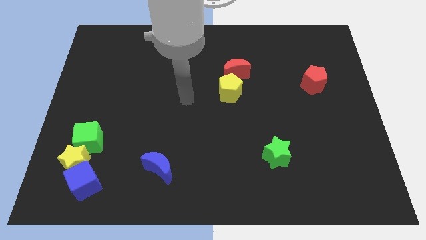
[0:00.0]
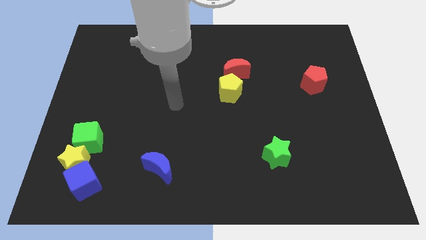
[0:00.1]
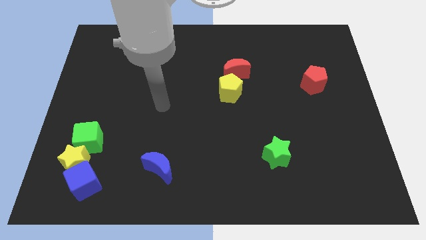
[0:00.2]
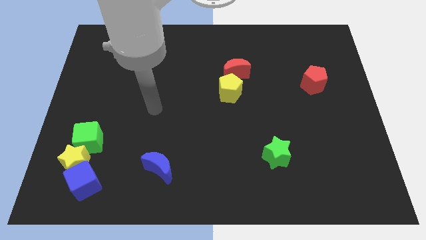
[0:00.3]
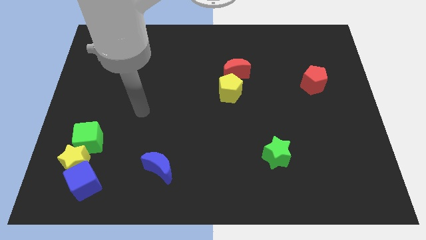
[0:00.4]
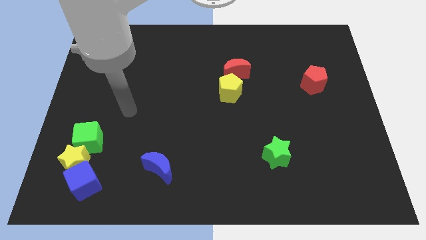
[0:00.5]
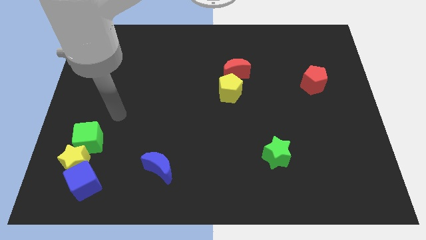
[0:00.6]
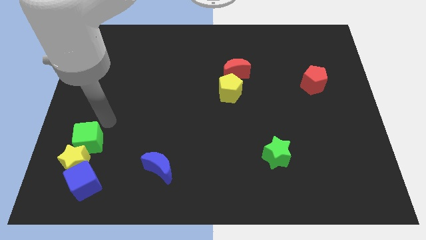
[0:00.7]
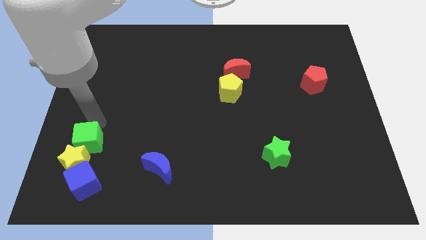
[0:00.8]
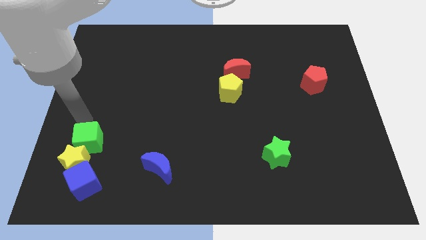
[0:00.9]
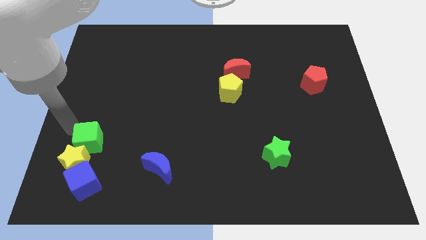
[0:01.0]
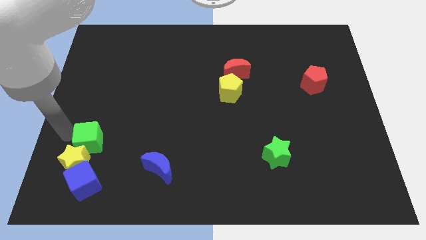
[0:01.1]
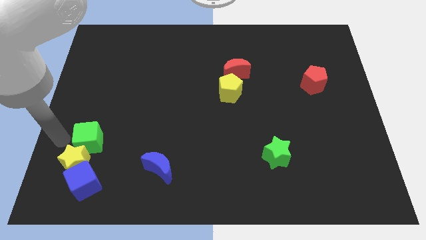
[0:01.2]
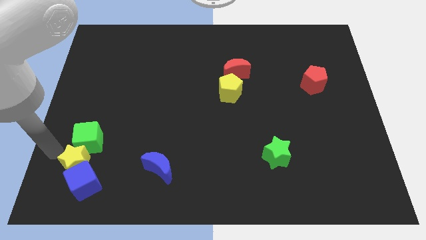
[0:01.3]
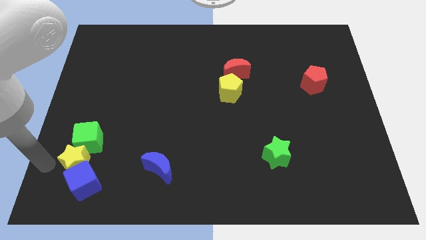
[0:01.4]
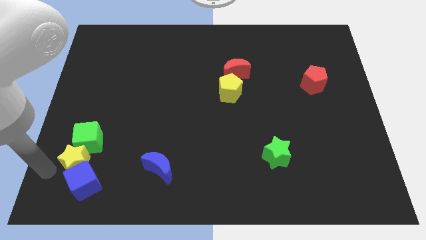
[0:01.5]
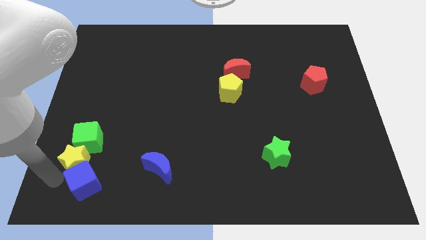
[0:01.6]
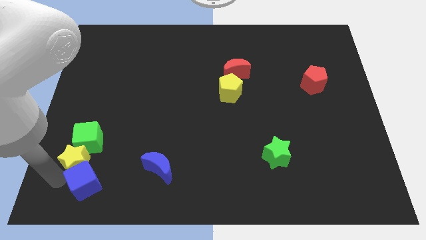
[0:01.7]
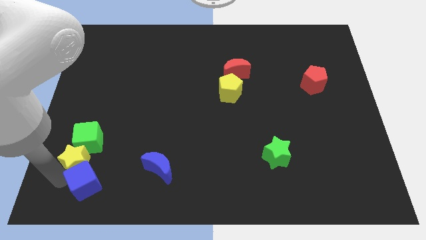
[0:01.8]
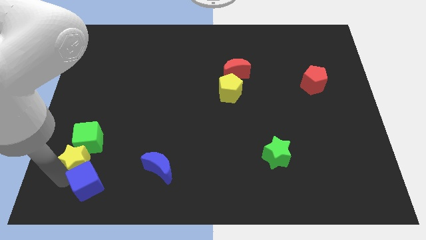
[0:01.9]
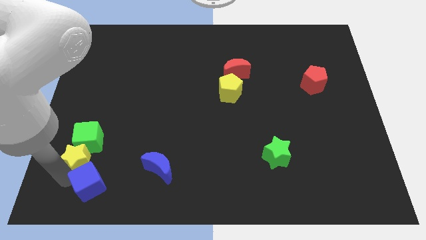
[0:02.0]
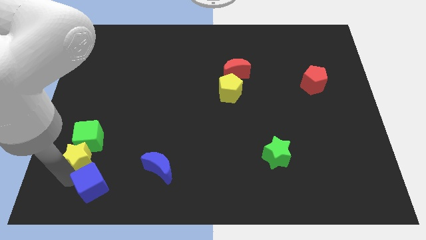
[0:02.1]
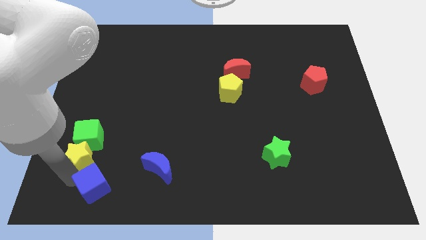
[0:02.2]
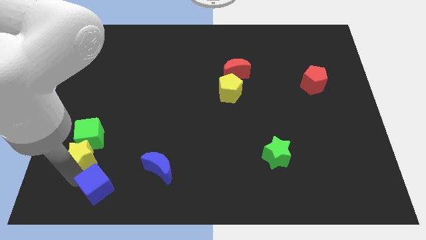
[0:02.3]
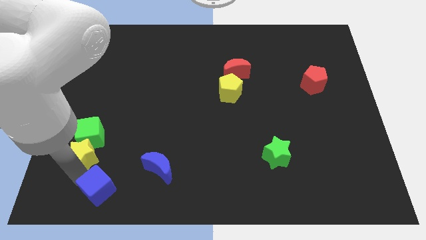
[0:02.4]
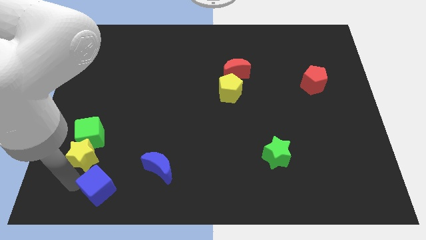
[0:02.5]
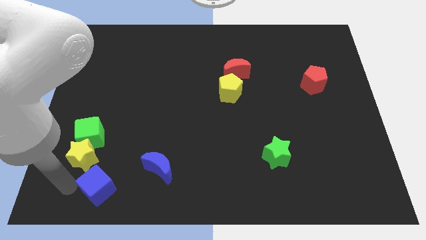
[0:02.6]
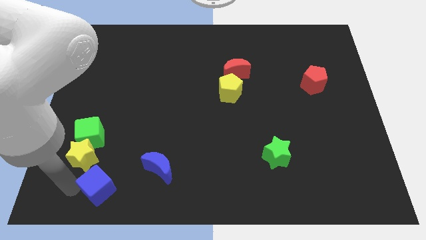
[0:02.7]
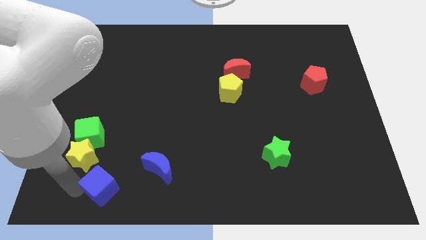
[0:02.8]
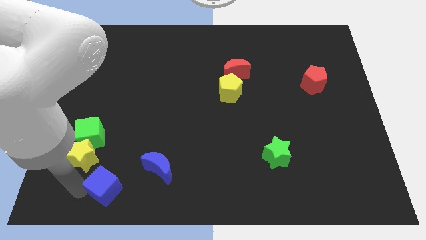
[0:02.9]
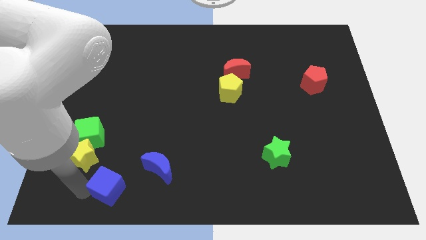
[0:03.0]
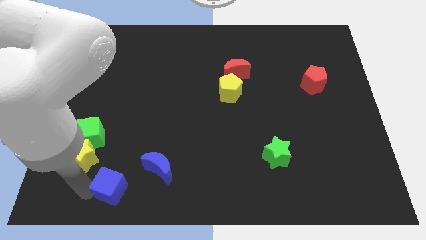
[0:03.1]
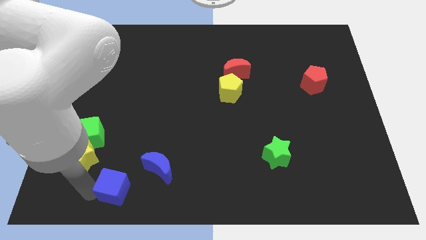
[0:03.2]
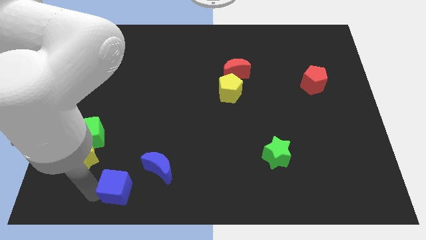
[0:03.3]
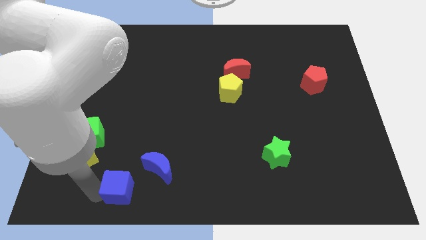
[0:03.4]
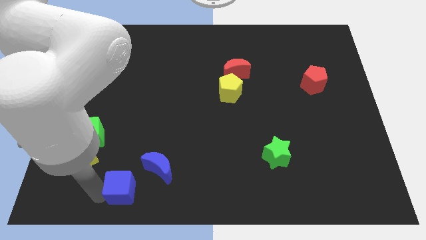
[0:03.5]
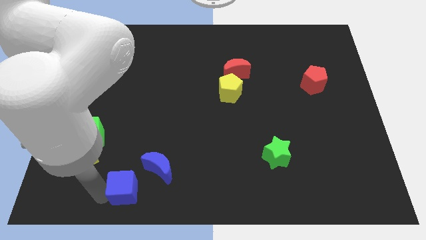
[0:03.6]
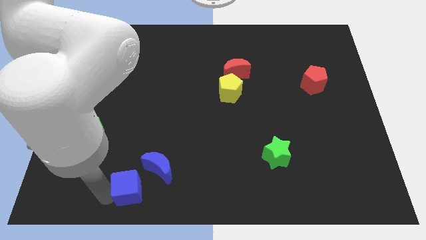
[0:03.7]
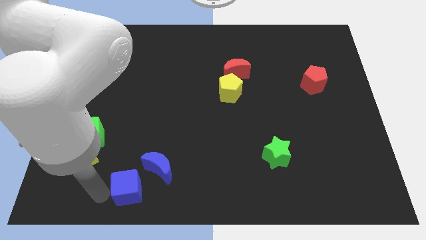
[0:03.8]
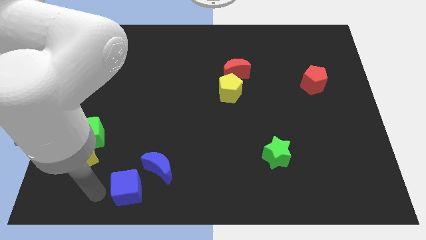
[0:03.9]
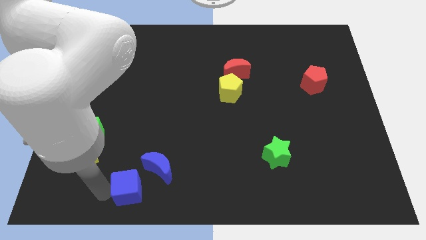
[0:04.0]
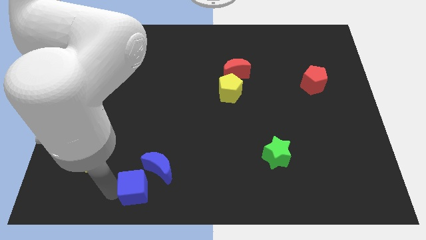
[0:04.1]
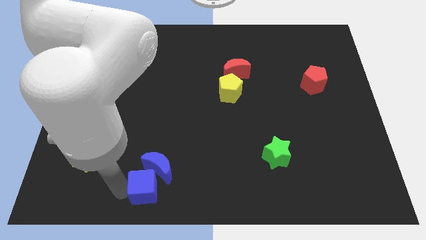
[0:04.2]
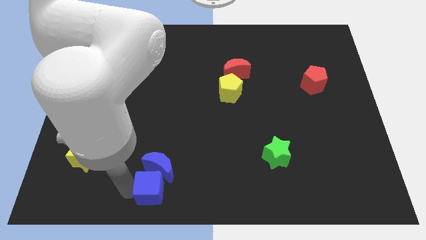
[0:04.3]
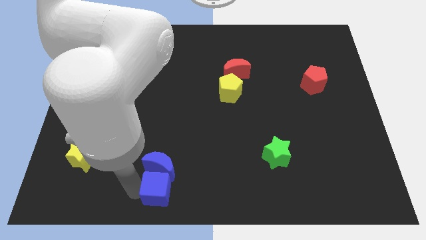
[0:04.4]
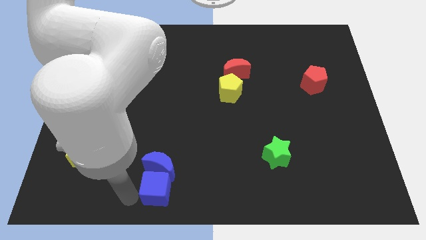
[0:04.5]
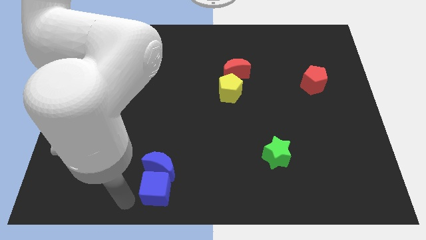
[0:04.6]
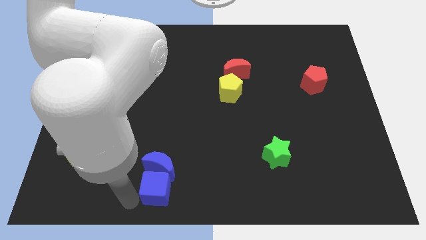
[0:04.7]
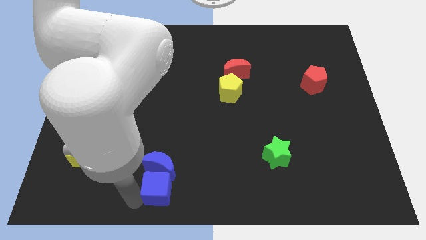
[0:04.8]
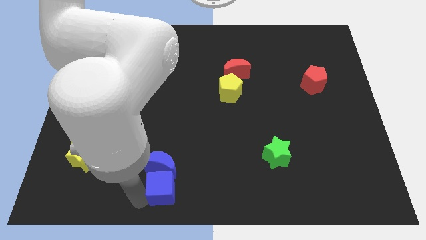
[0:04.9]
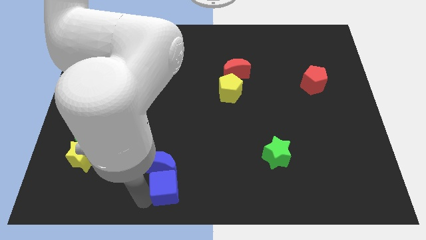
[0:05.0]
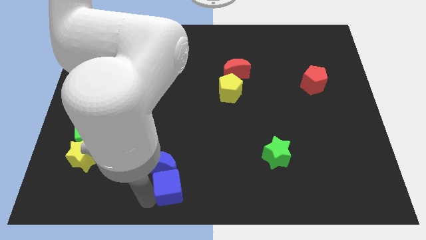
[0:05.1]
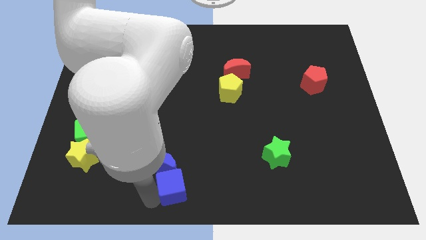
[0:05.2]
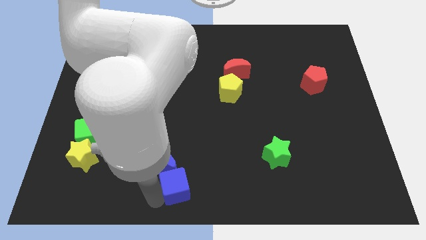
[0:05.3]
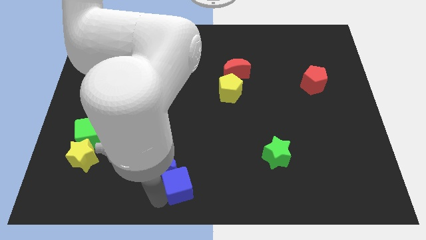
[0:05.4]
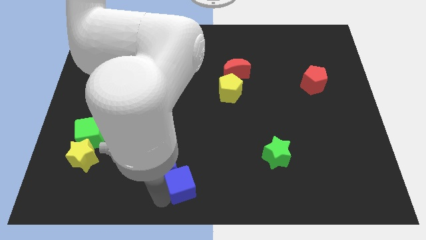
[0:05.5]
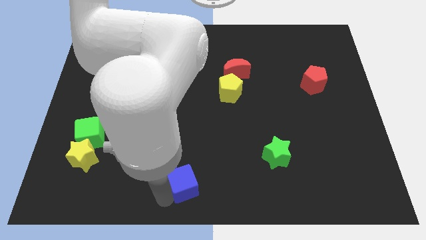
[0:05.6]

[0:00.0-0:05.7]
slide the blue cube to the right

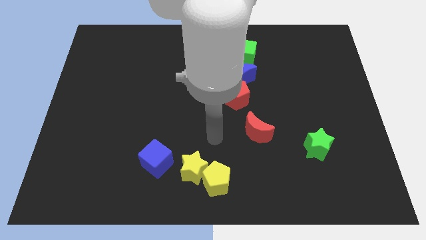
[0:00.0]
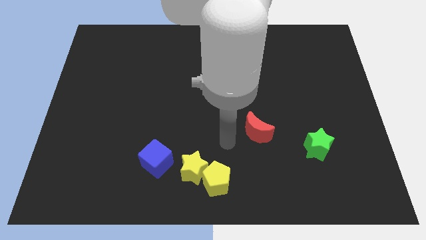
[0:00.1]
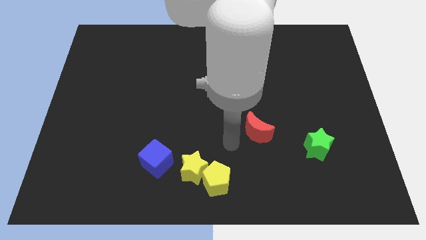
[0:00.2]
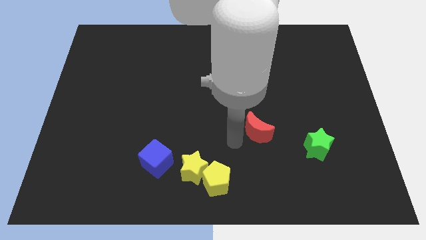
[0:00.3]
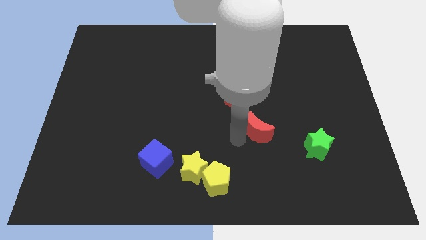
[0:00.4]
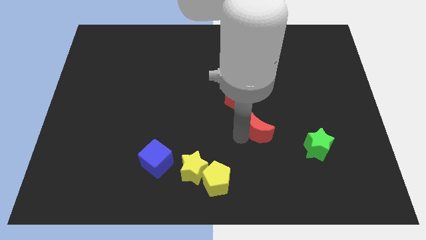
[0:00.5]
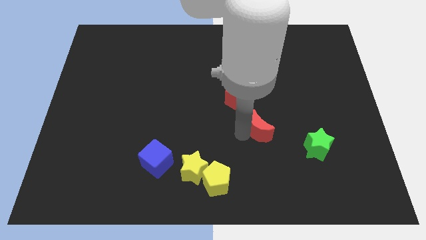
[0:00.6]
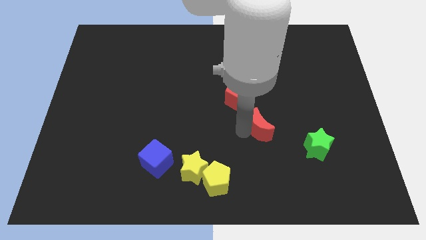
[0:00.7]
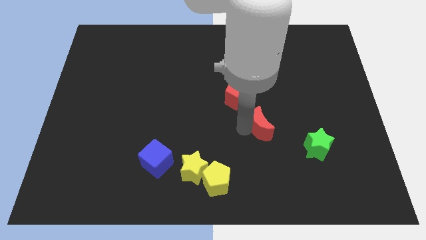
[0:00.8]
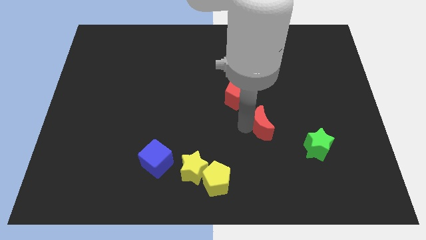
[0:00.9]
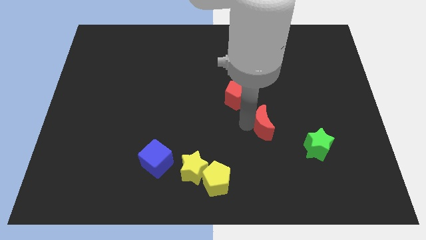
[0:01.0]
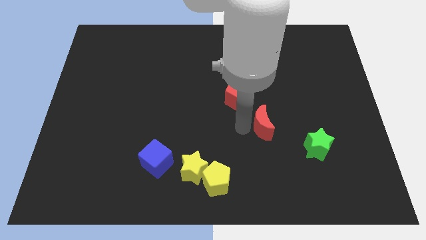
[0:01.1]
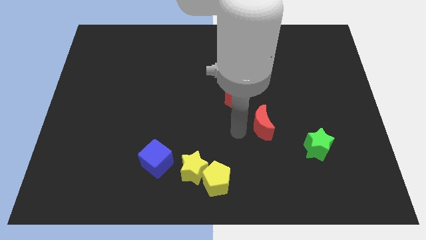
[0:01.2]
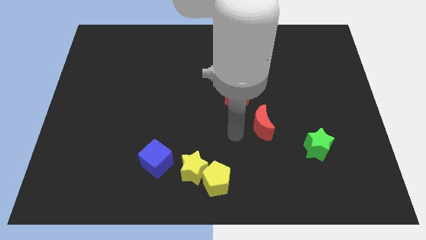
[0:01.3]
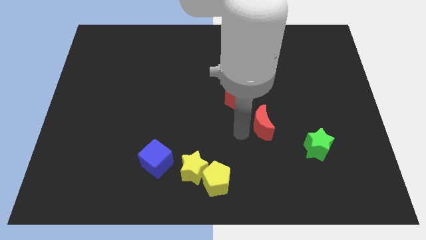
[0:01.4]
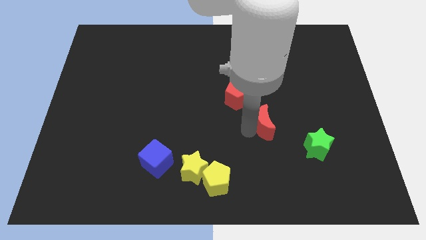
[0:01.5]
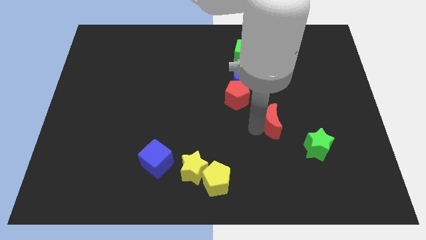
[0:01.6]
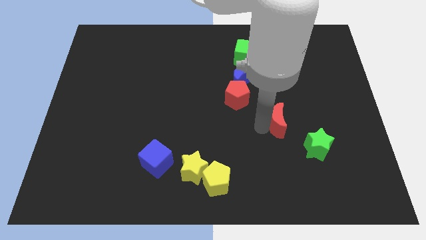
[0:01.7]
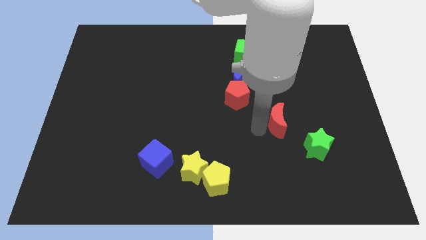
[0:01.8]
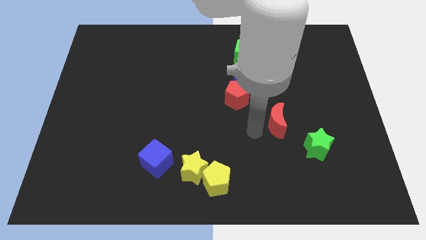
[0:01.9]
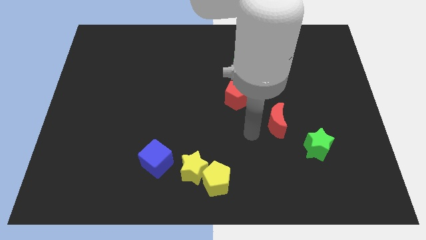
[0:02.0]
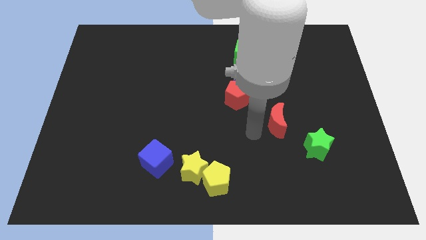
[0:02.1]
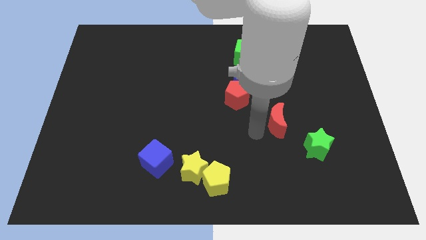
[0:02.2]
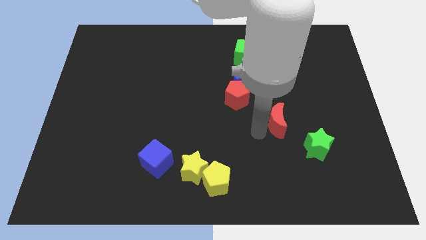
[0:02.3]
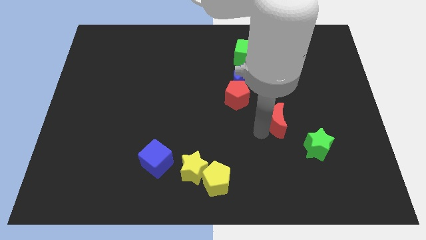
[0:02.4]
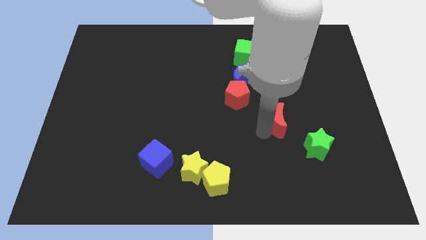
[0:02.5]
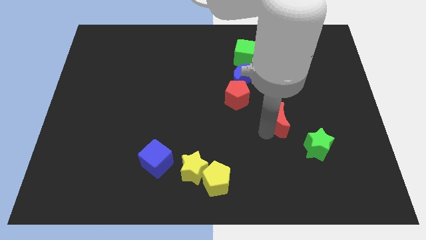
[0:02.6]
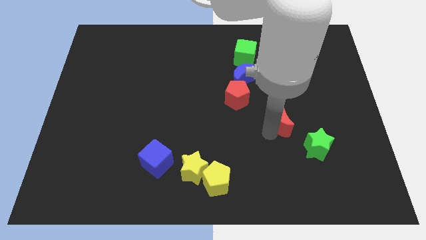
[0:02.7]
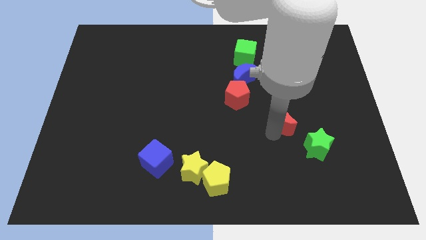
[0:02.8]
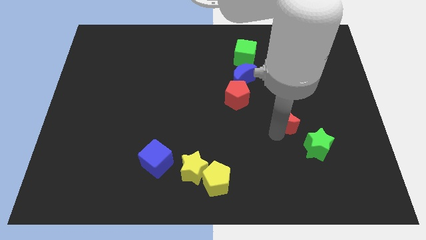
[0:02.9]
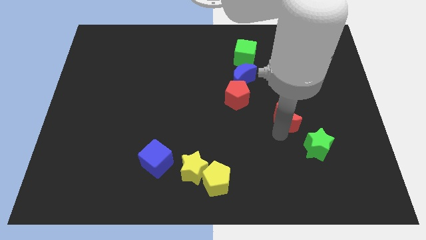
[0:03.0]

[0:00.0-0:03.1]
move the red moon diagonally up and right a little bit
